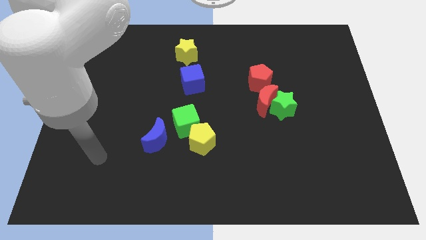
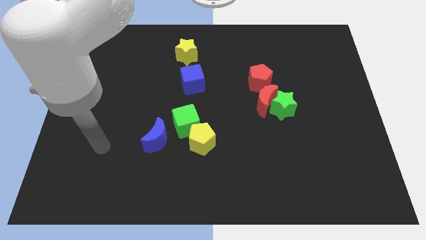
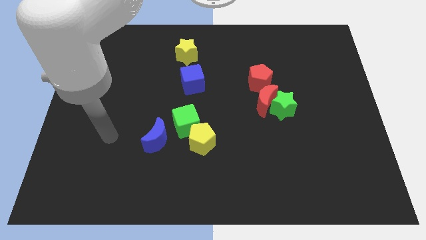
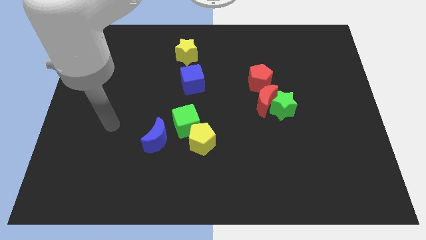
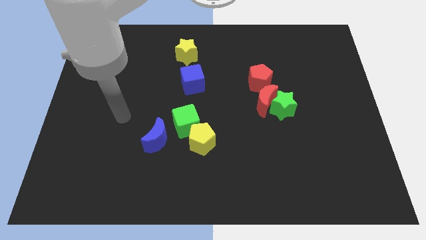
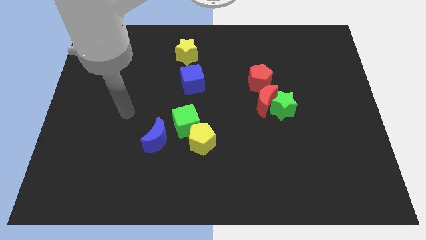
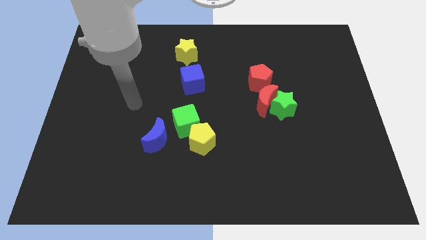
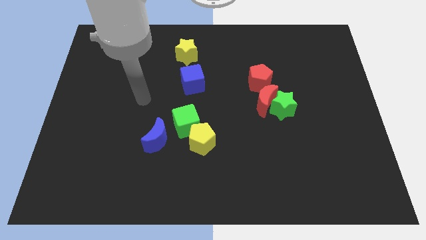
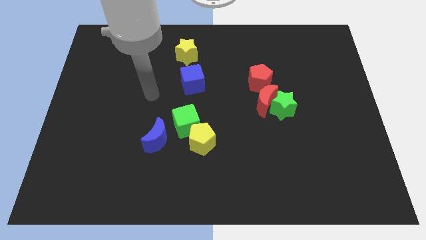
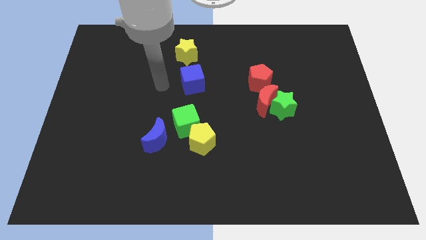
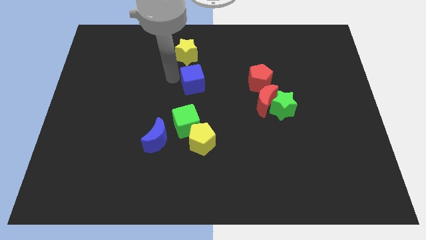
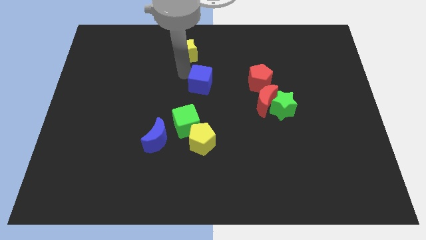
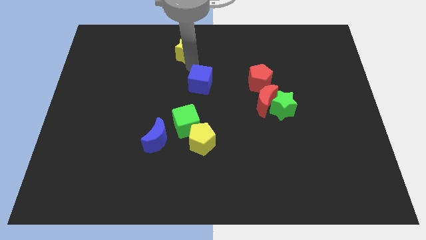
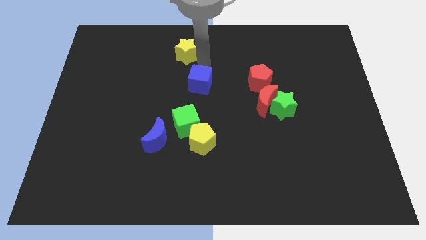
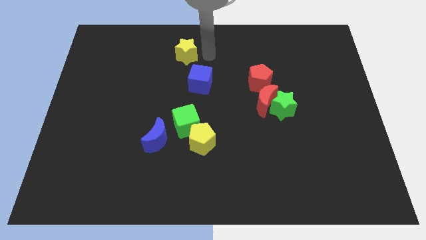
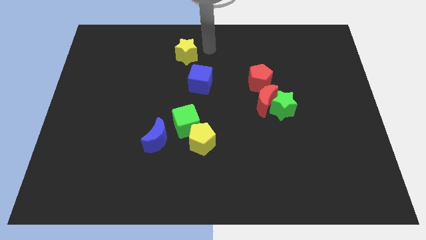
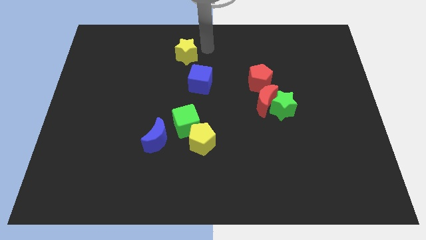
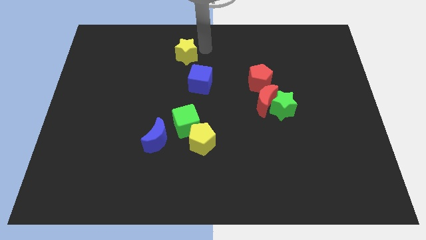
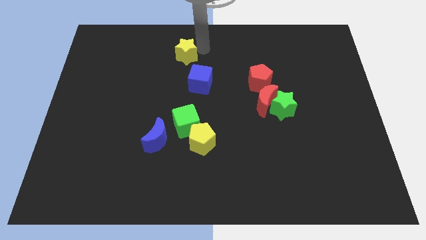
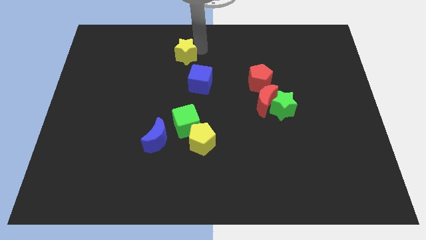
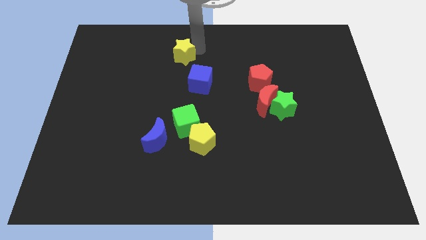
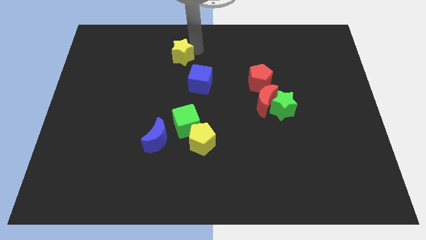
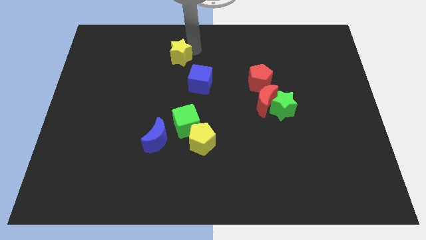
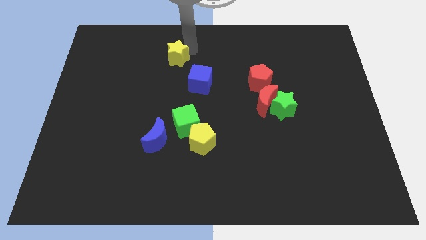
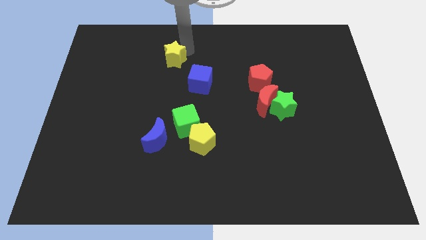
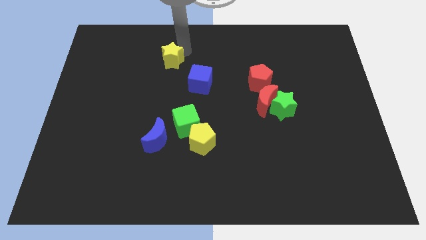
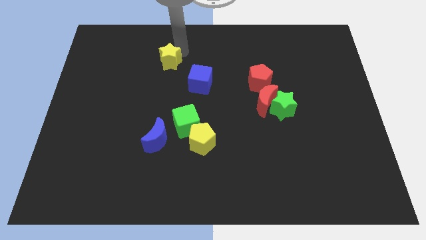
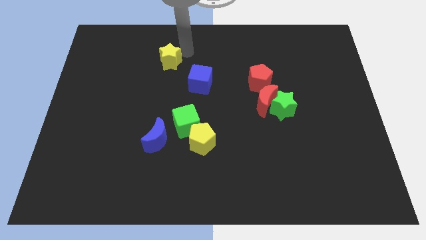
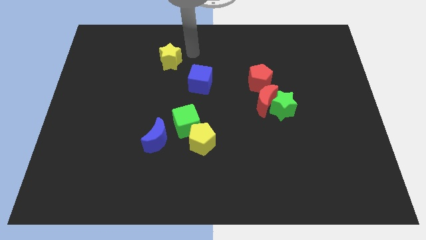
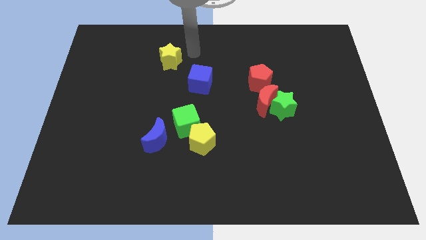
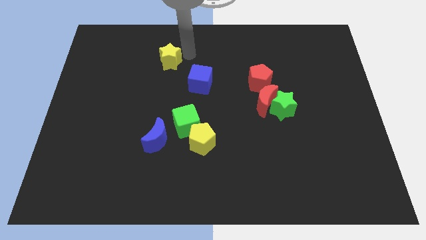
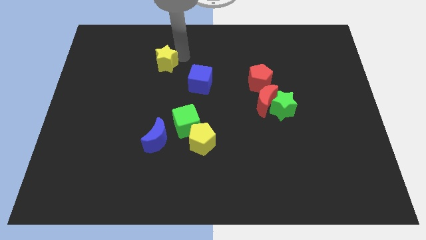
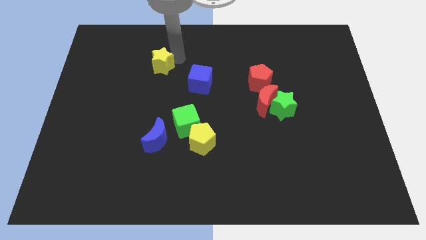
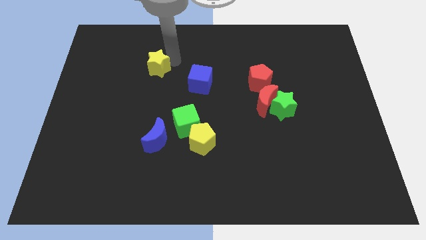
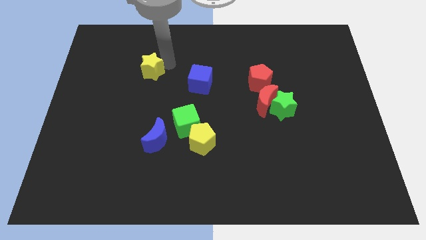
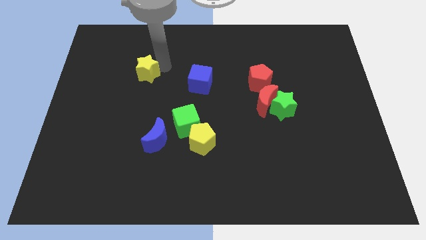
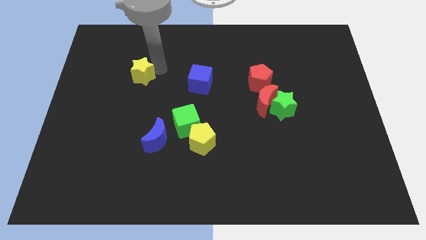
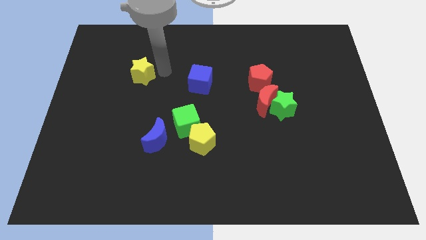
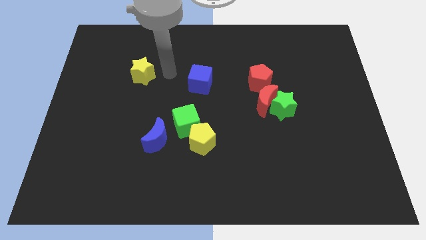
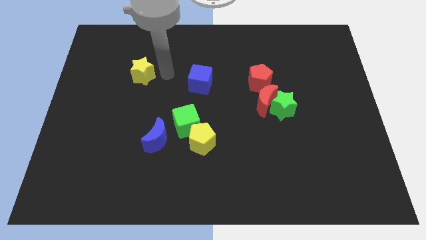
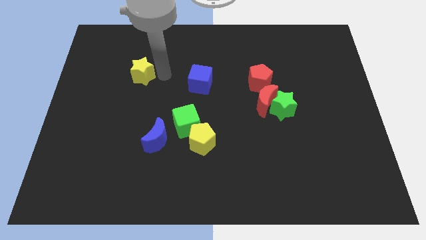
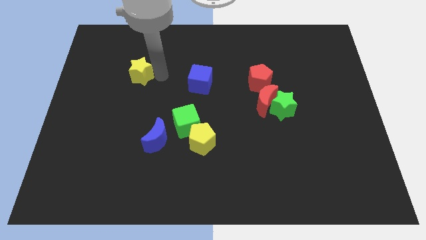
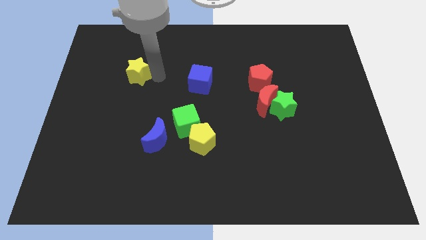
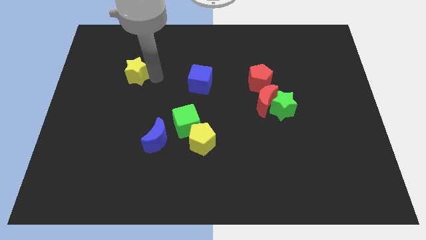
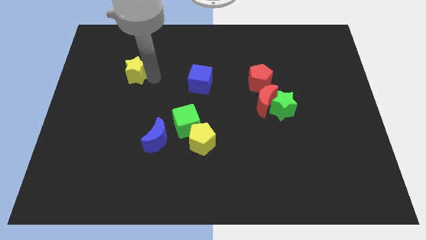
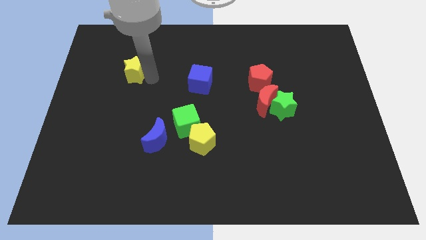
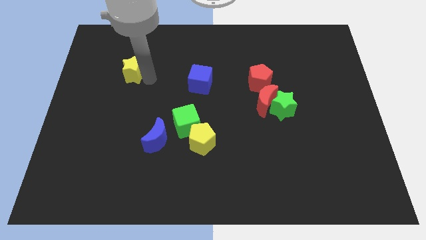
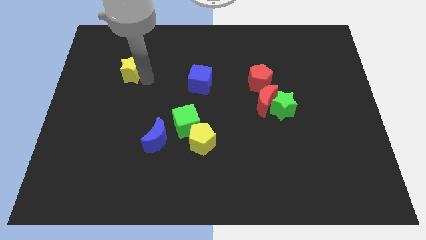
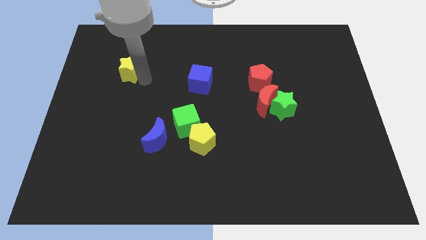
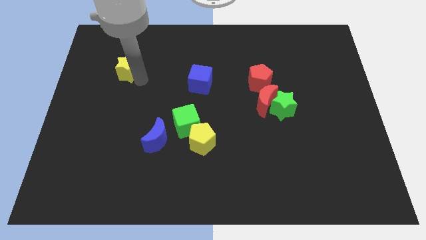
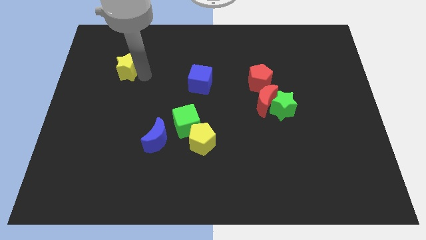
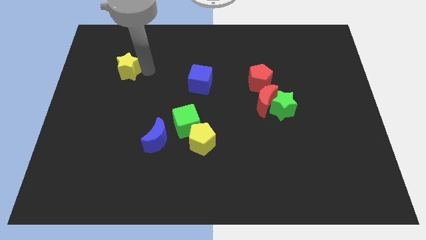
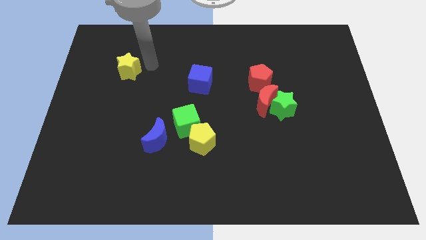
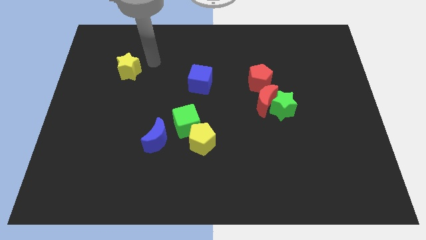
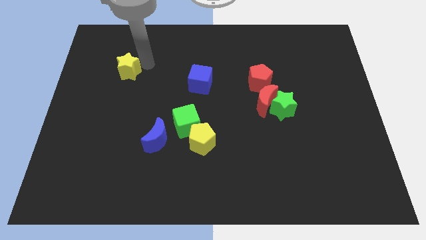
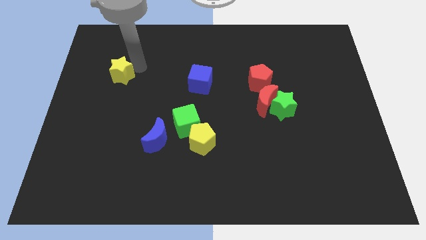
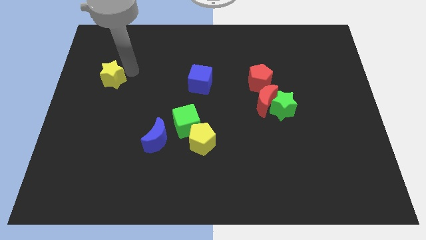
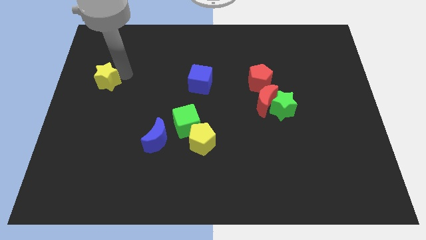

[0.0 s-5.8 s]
slide the yellow star to the left side

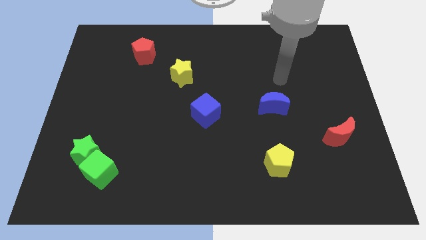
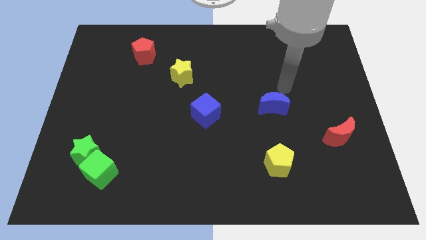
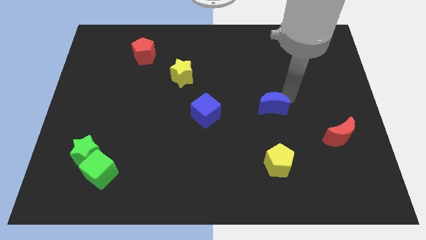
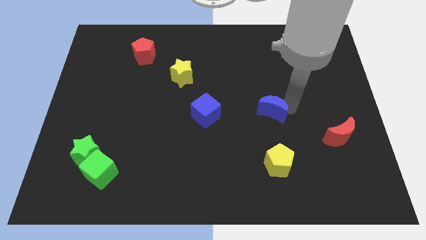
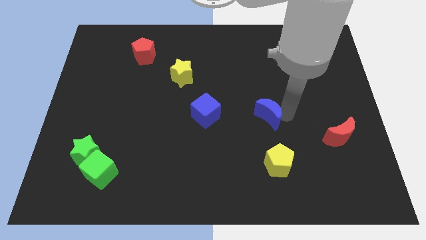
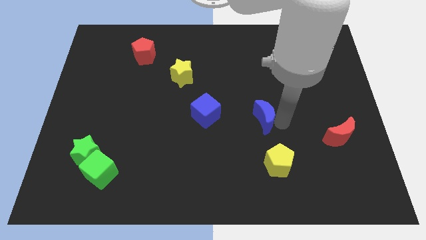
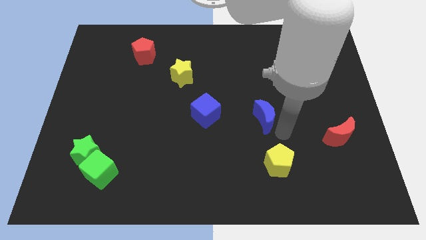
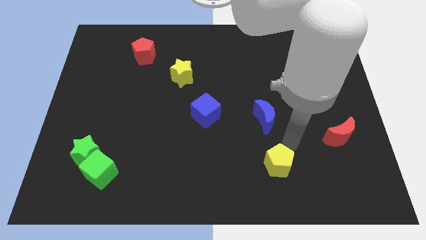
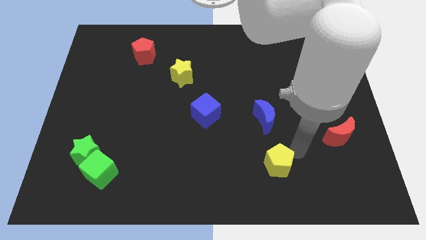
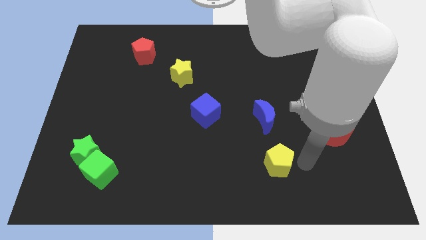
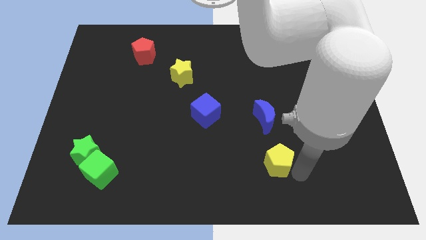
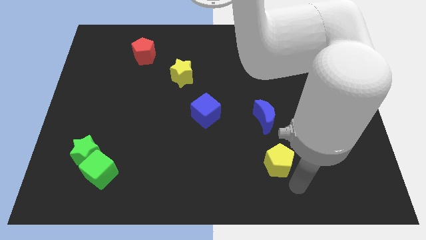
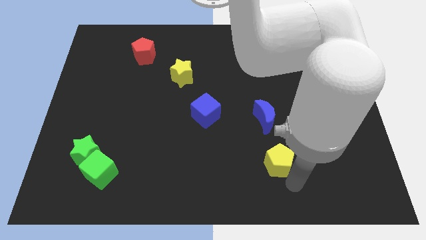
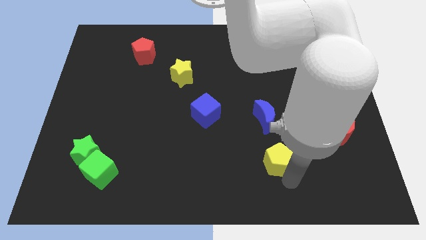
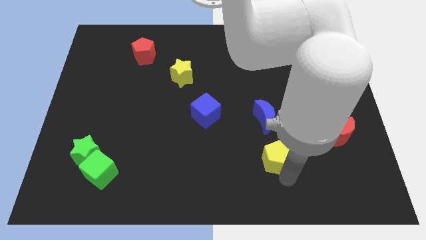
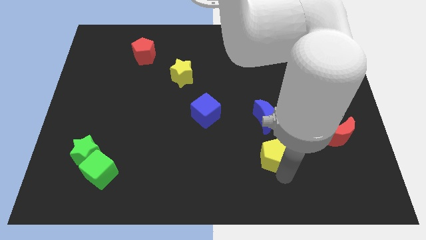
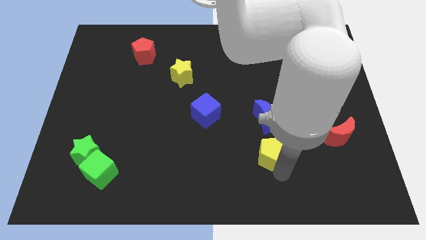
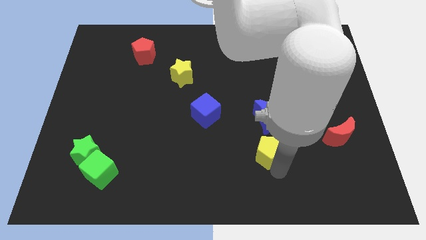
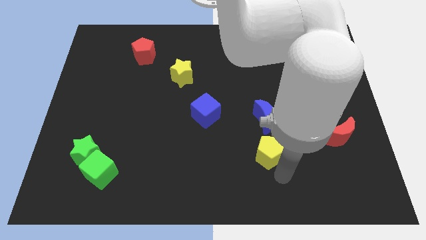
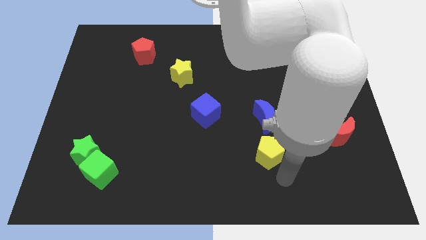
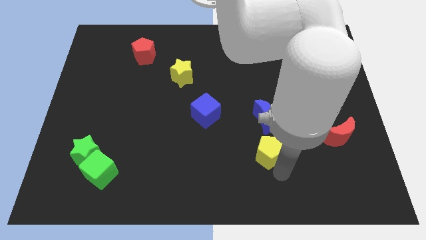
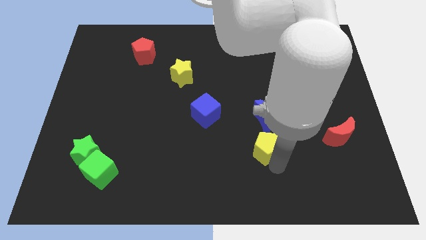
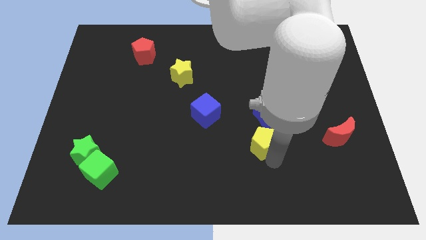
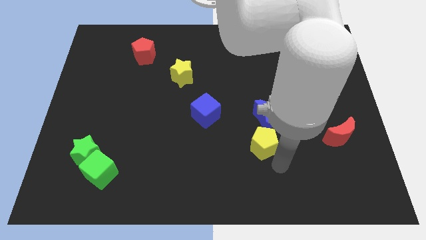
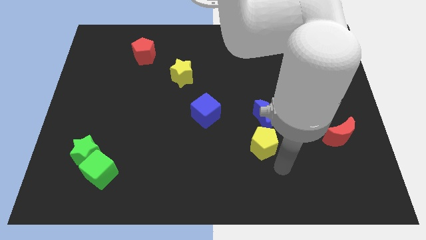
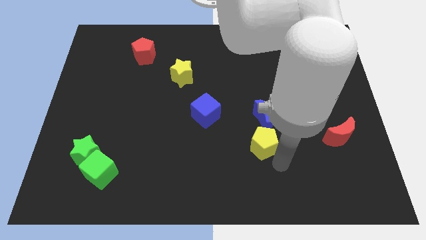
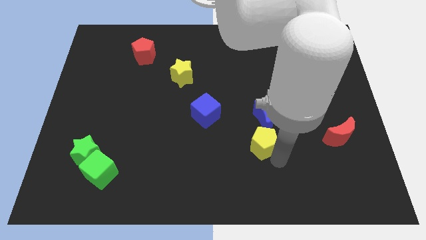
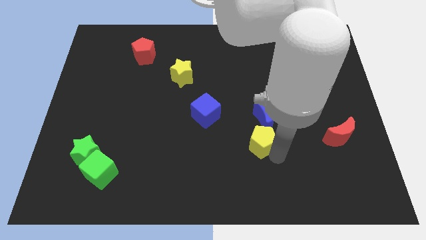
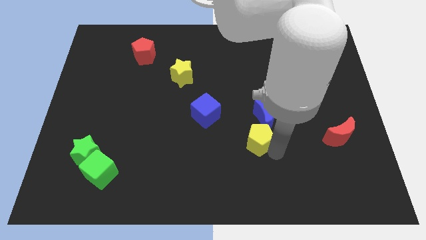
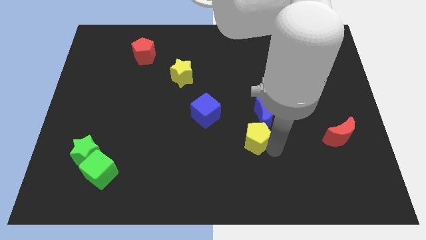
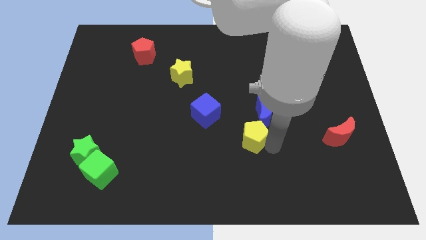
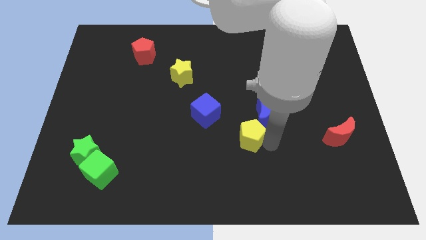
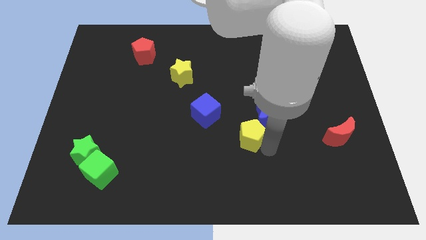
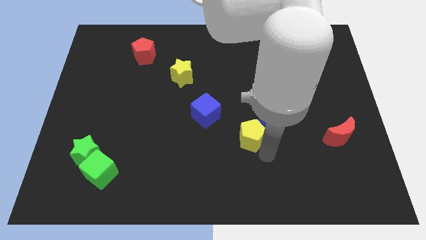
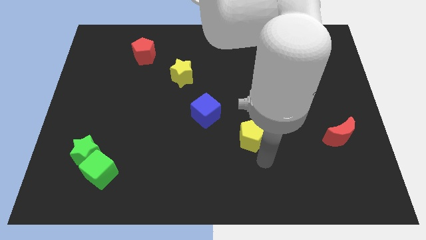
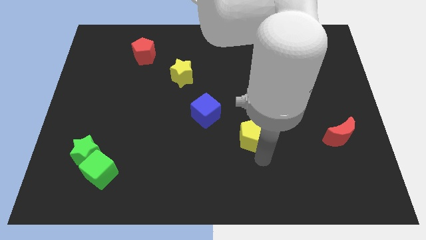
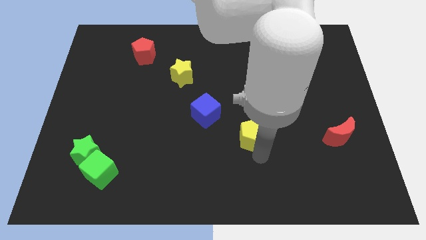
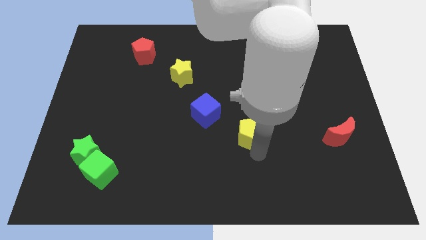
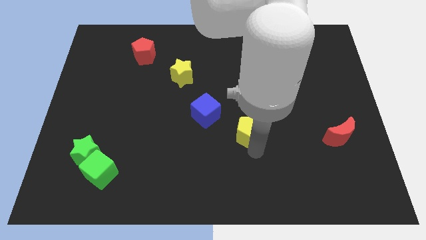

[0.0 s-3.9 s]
push the yellow pentagon to the center of the board
